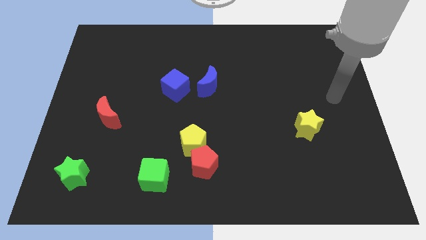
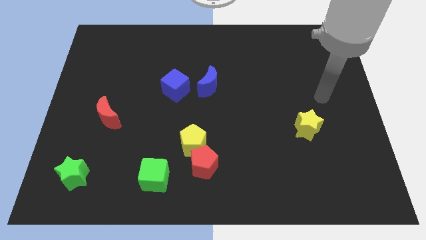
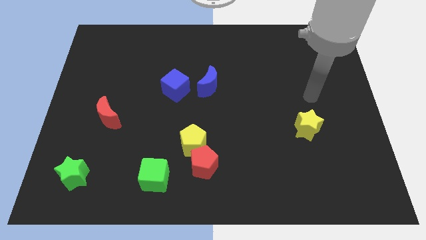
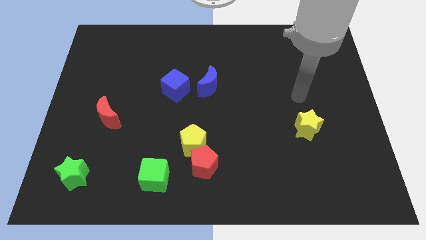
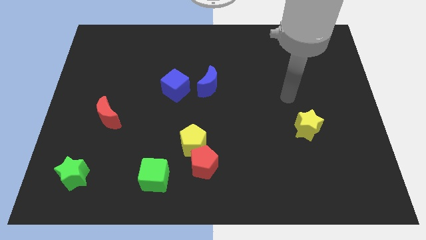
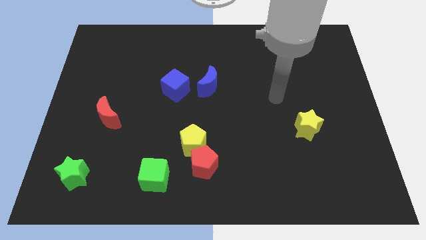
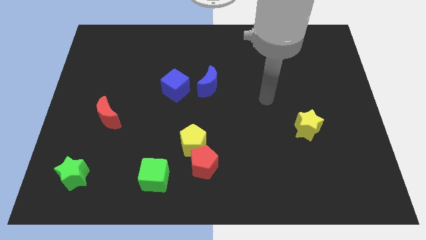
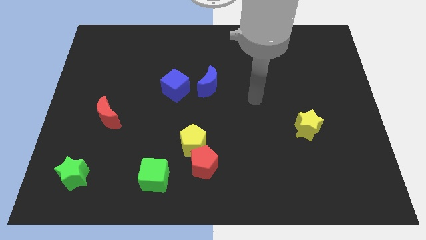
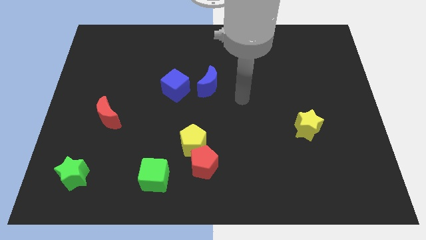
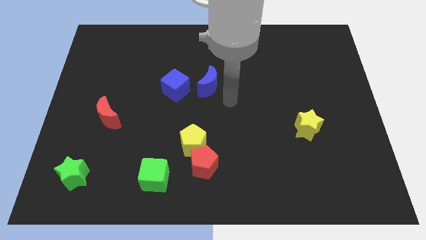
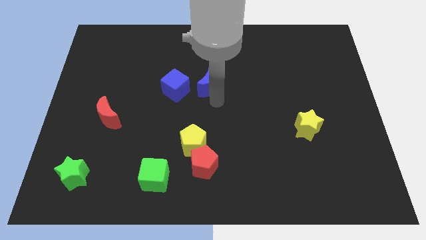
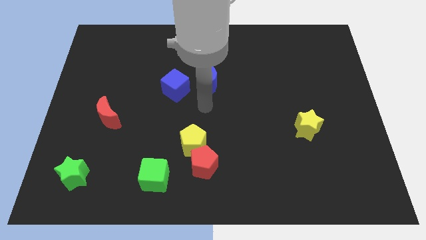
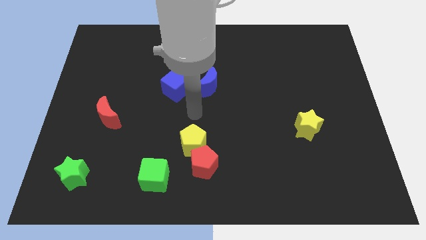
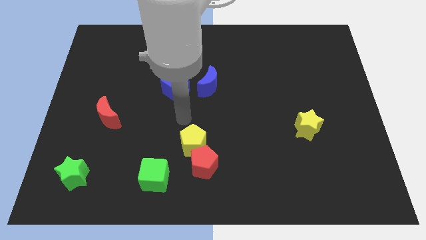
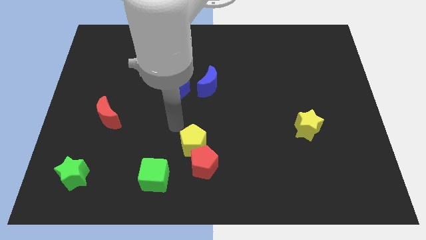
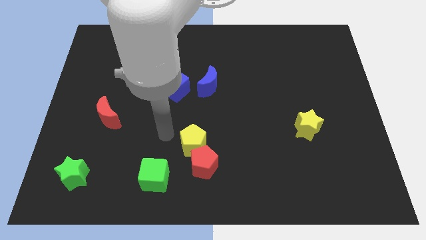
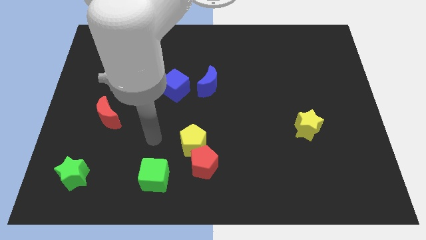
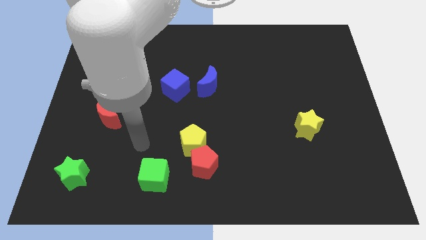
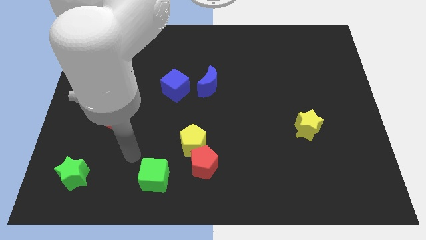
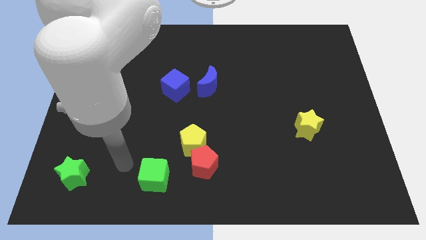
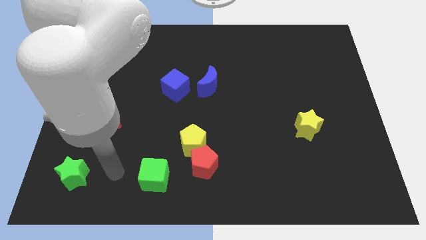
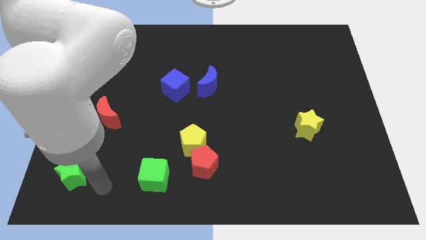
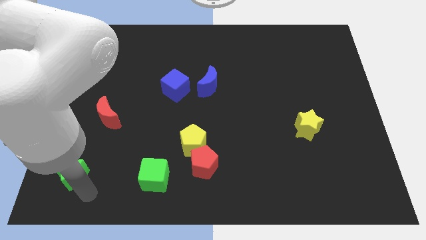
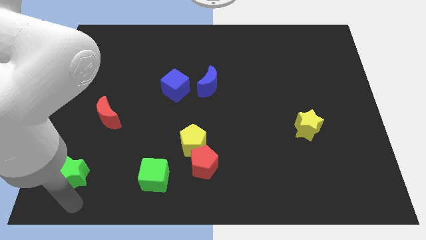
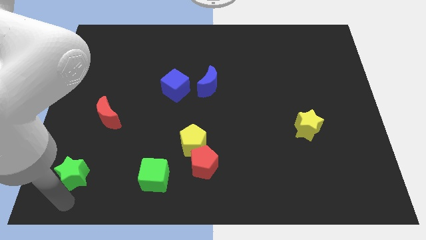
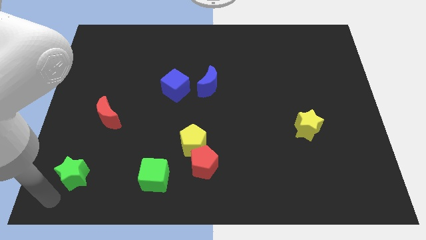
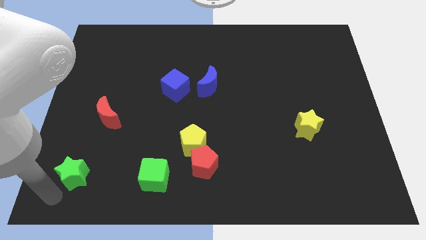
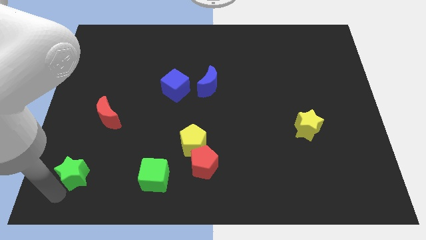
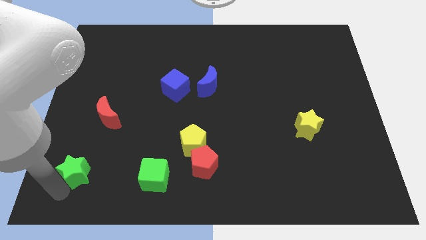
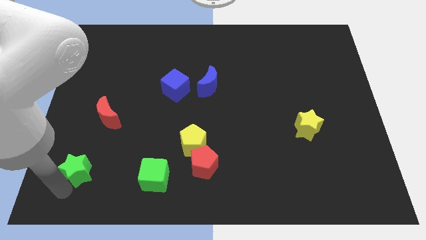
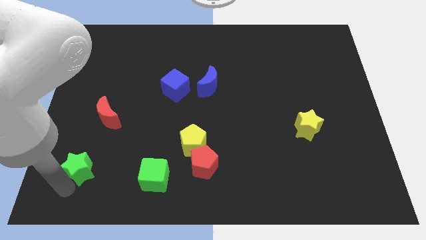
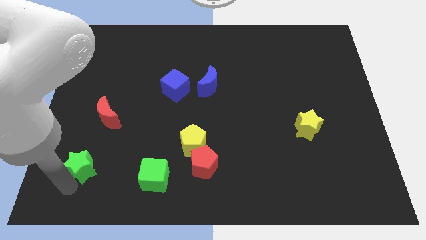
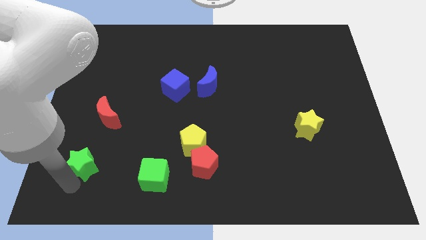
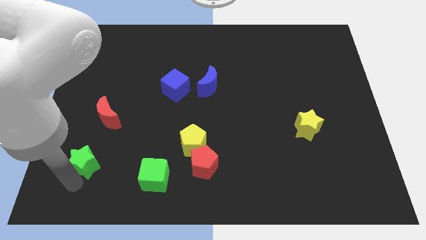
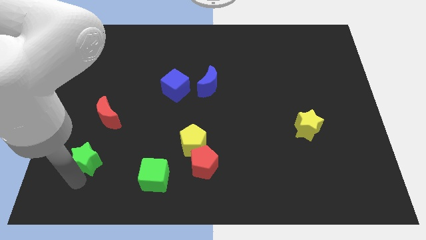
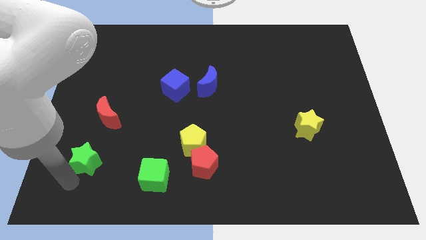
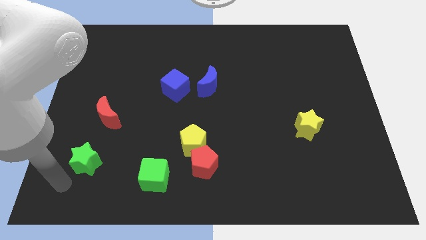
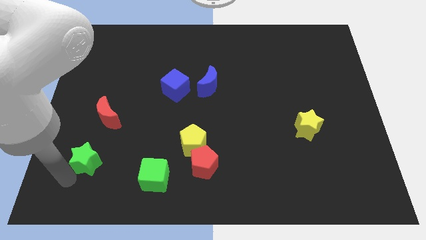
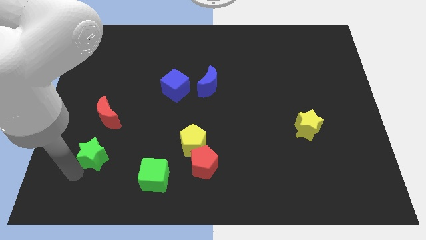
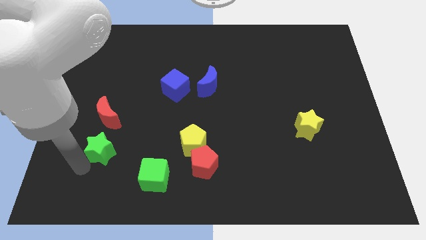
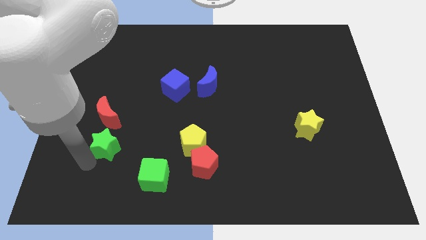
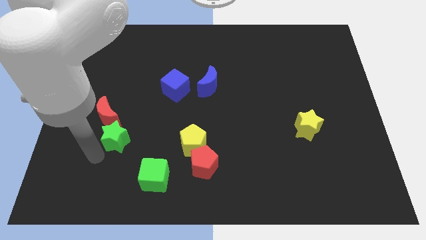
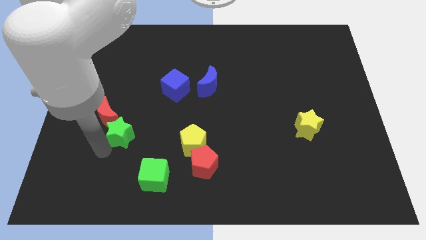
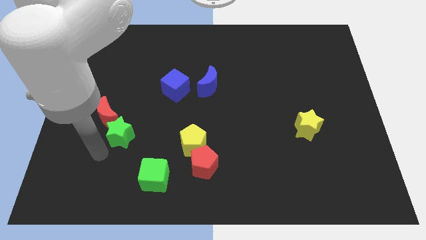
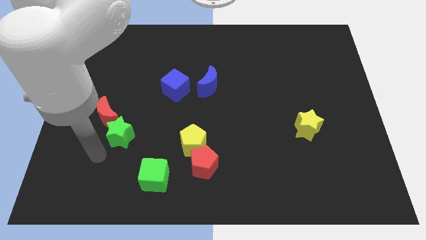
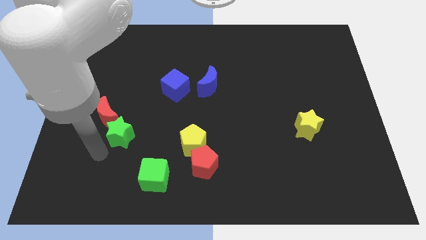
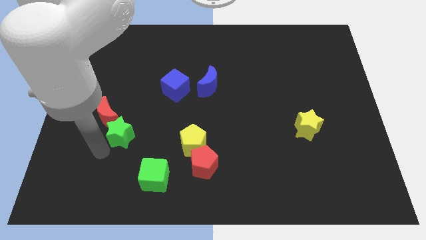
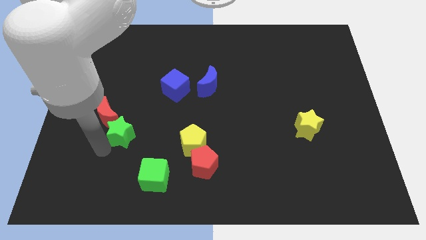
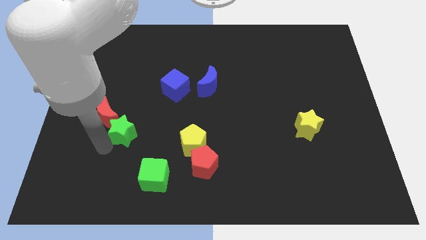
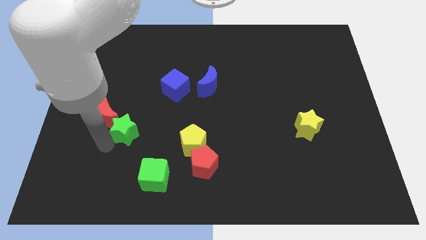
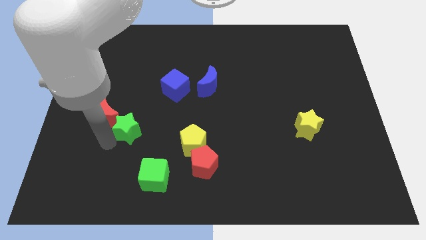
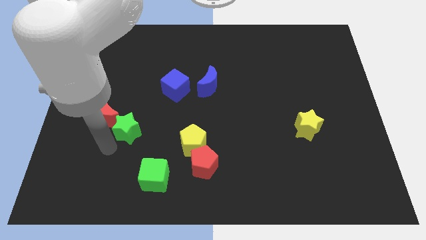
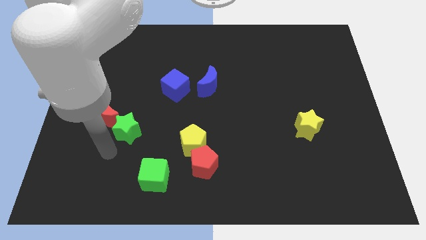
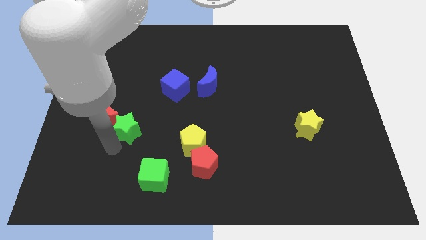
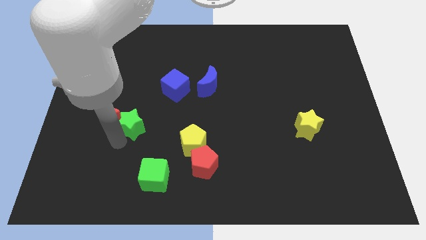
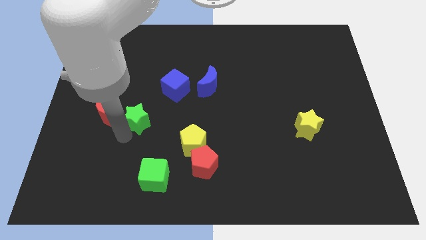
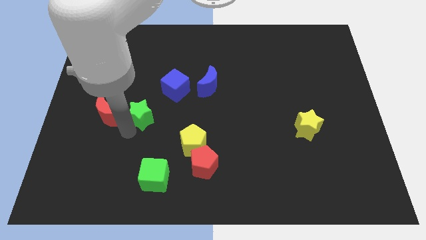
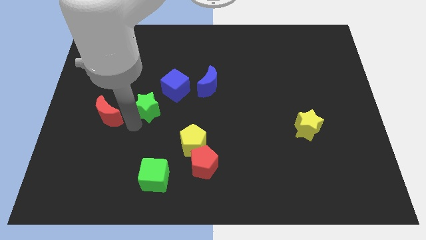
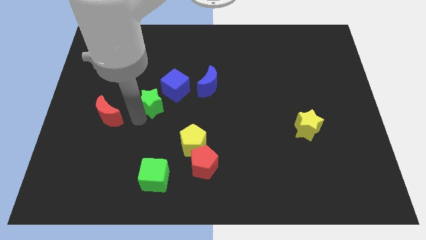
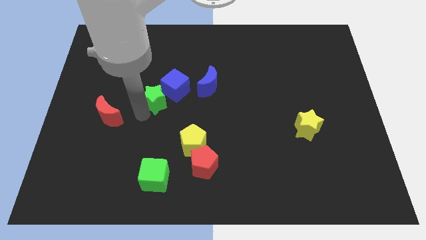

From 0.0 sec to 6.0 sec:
push the green star next to the blue cube

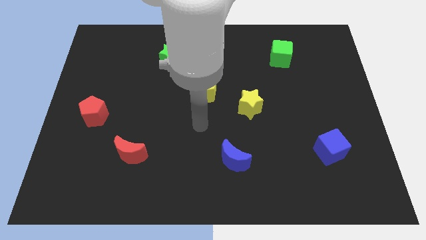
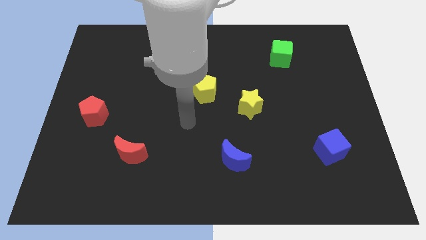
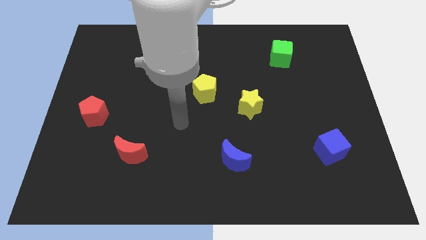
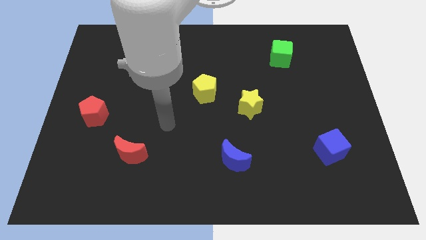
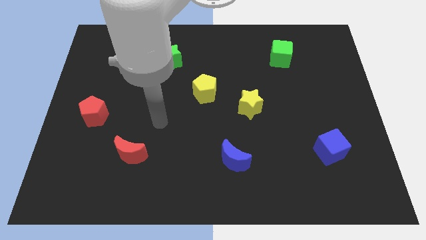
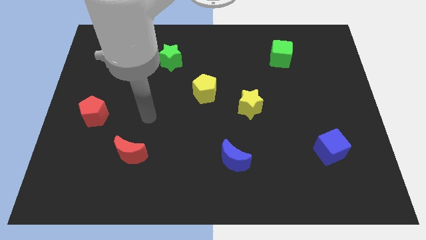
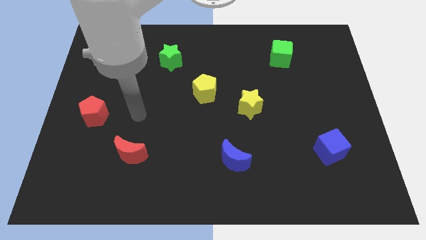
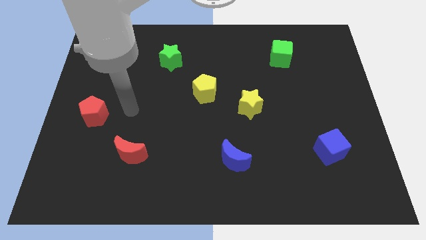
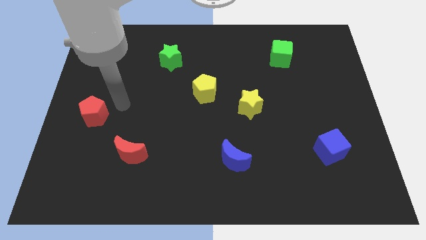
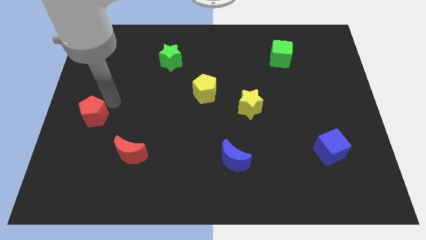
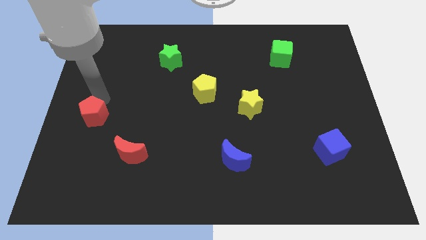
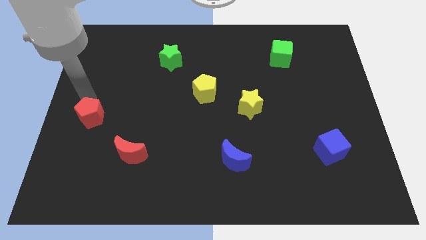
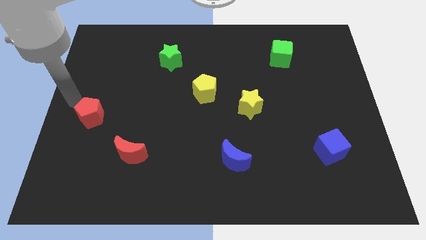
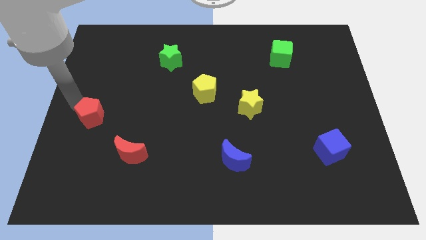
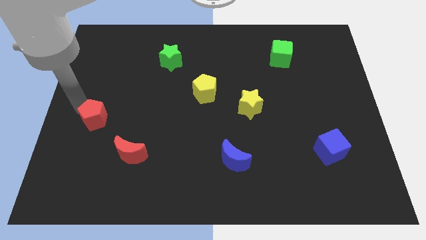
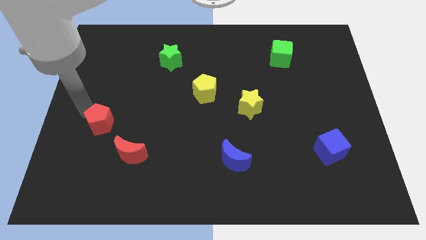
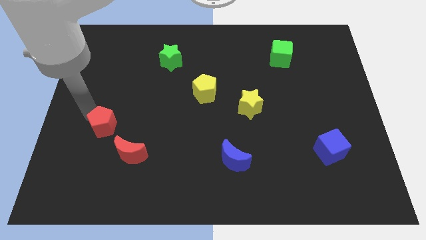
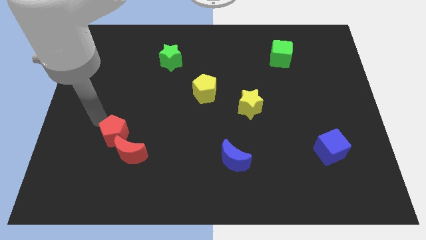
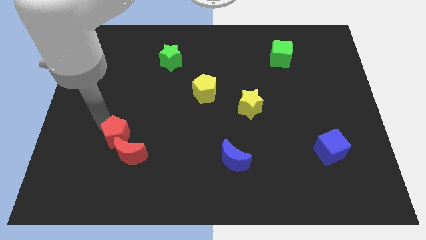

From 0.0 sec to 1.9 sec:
put the red pentagon towards the red moon
